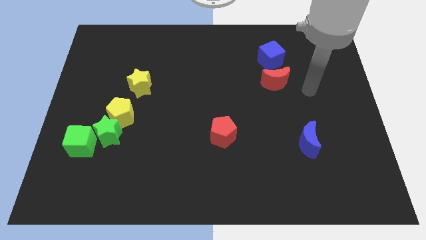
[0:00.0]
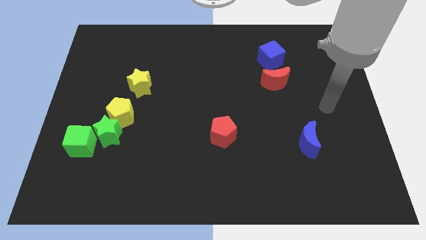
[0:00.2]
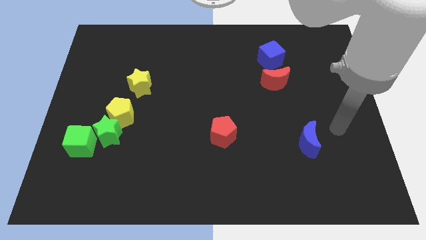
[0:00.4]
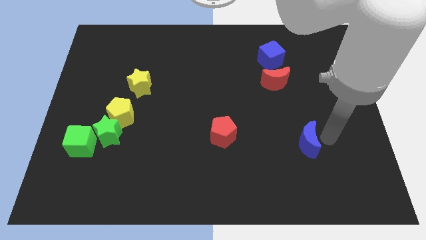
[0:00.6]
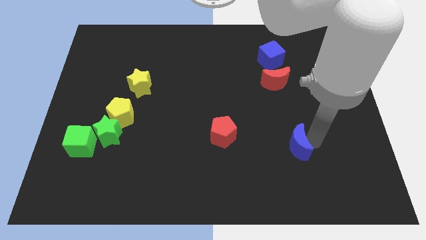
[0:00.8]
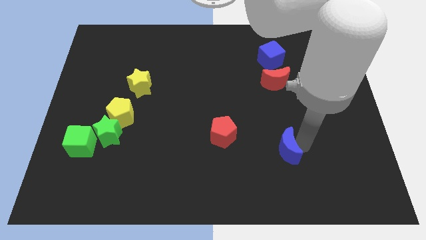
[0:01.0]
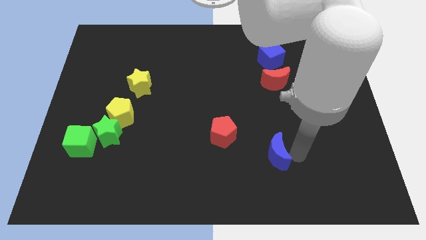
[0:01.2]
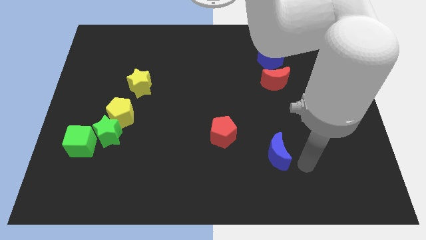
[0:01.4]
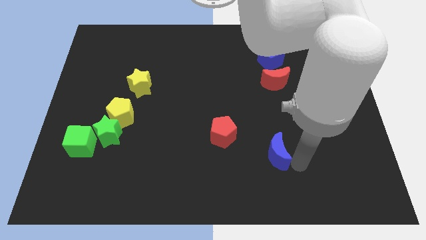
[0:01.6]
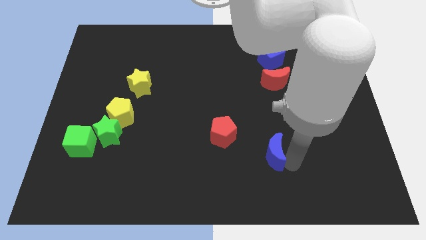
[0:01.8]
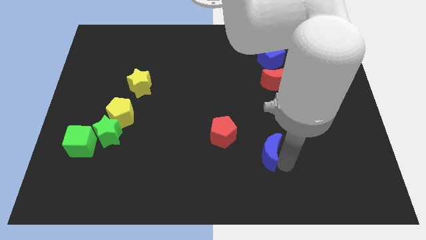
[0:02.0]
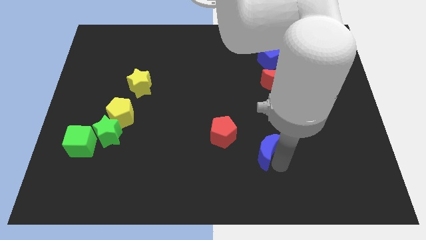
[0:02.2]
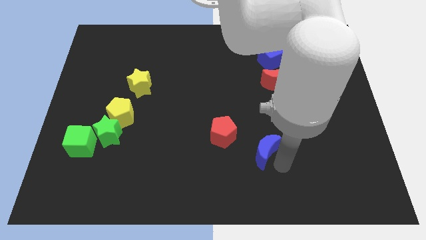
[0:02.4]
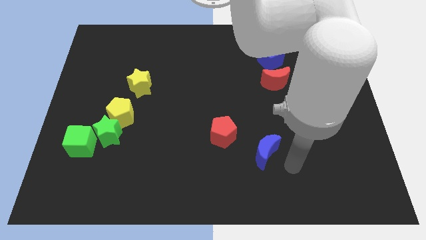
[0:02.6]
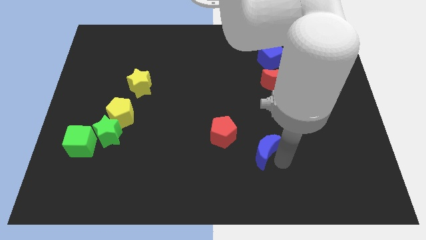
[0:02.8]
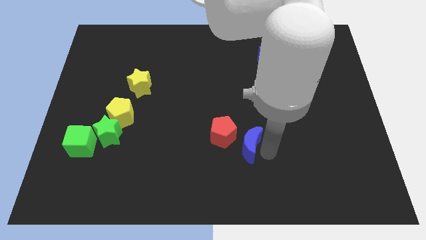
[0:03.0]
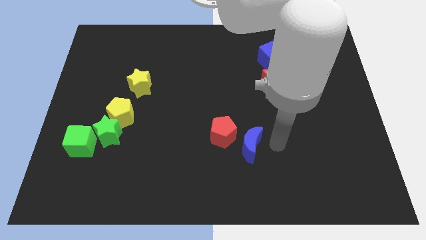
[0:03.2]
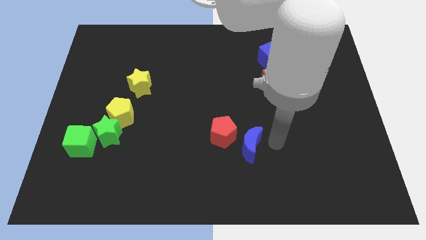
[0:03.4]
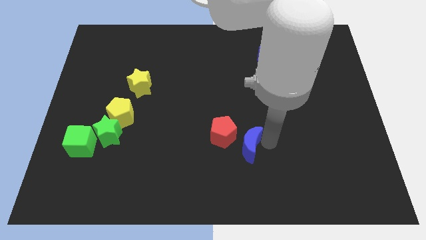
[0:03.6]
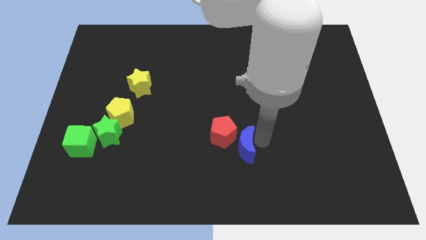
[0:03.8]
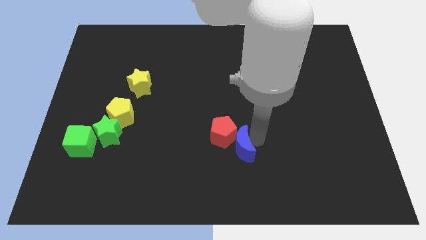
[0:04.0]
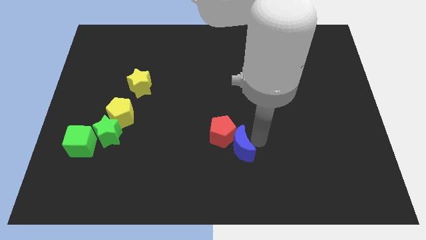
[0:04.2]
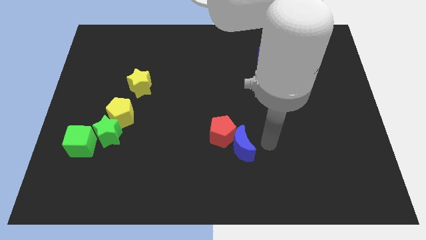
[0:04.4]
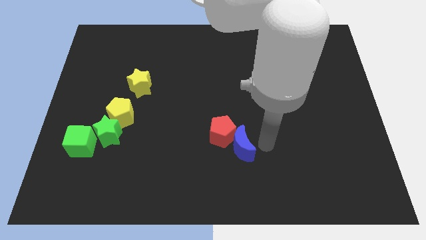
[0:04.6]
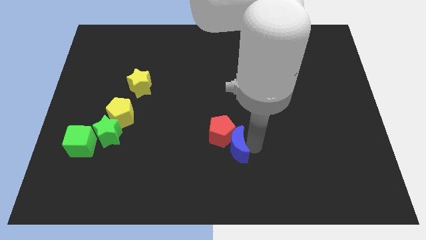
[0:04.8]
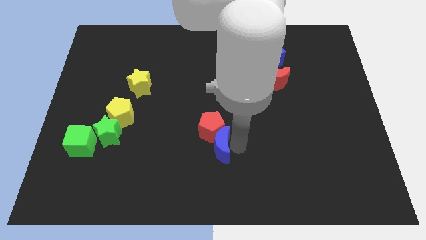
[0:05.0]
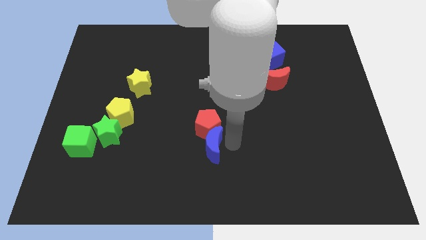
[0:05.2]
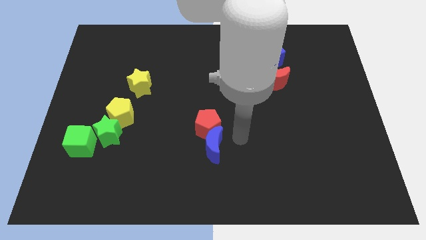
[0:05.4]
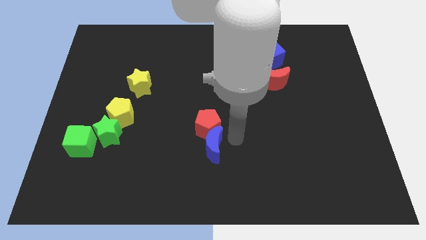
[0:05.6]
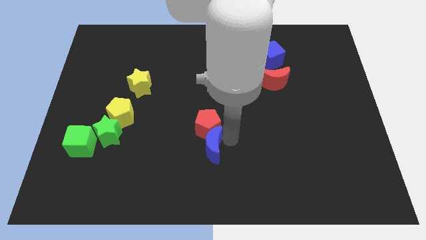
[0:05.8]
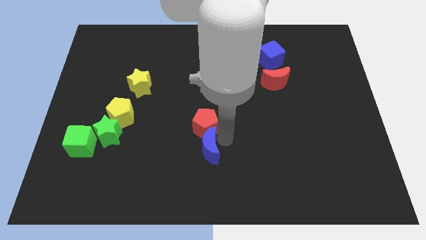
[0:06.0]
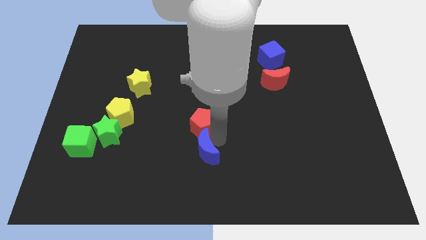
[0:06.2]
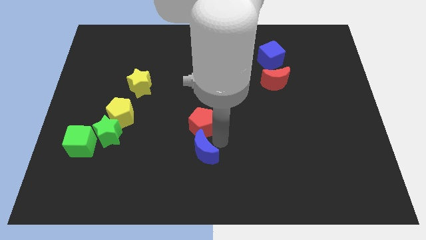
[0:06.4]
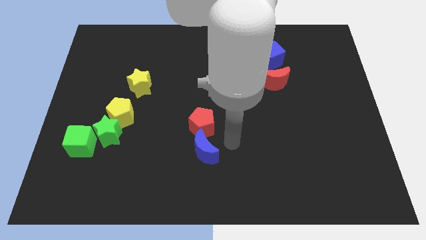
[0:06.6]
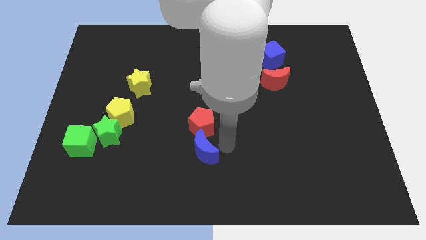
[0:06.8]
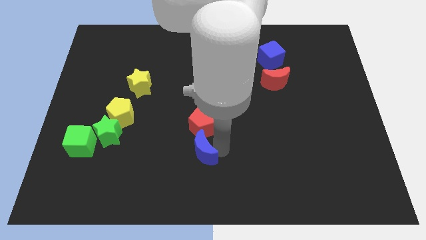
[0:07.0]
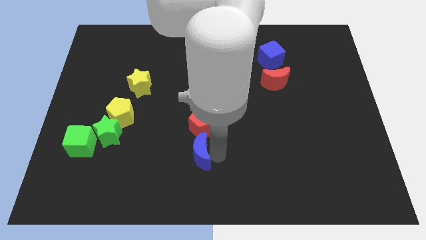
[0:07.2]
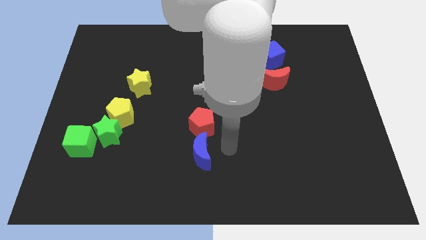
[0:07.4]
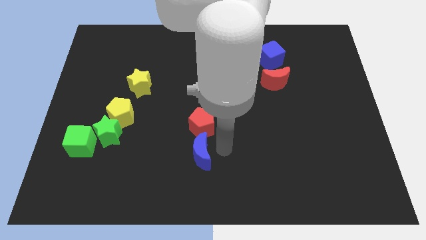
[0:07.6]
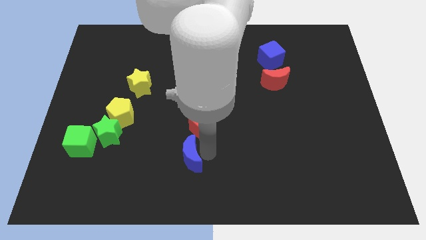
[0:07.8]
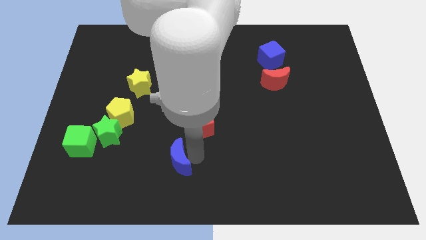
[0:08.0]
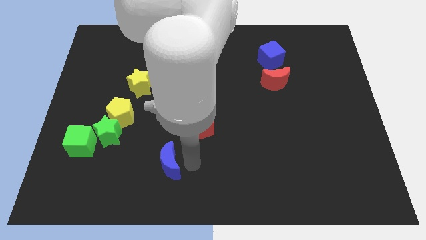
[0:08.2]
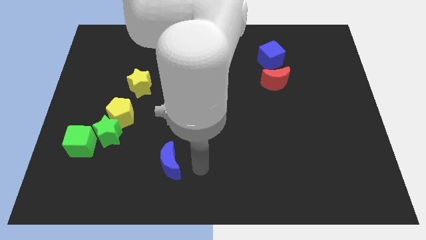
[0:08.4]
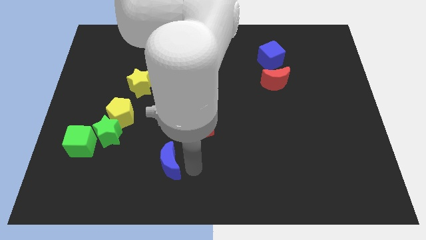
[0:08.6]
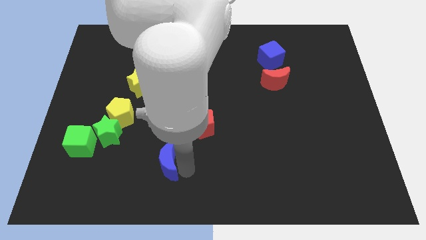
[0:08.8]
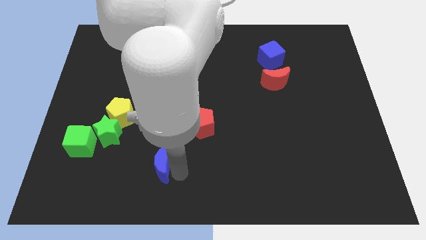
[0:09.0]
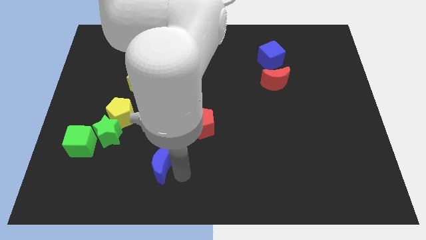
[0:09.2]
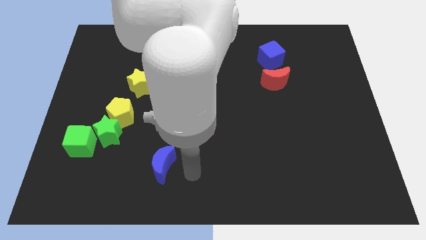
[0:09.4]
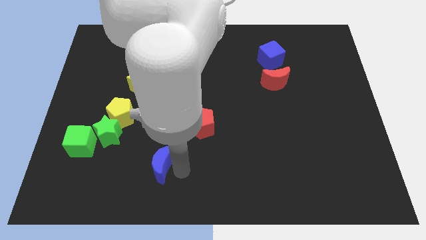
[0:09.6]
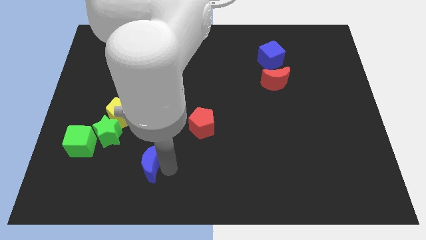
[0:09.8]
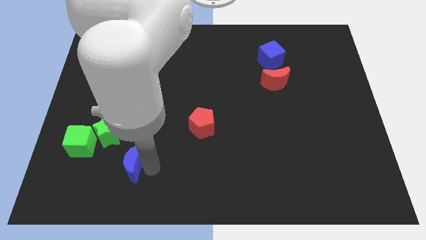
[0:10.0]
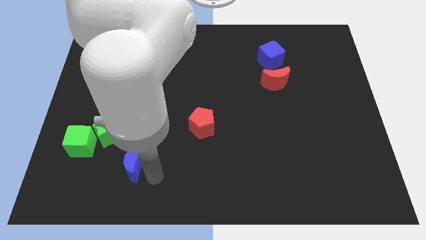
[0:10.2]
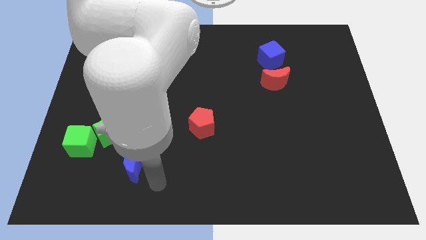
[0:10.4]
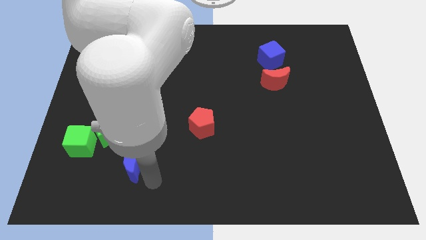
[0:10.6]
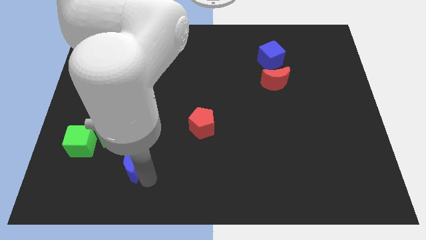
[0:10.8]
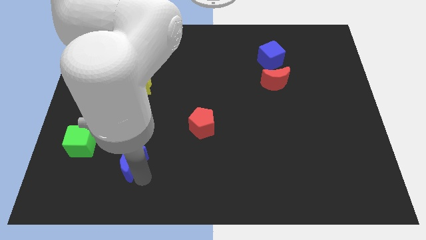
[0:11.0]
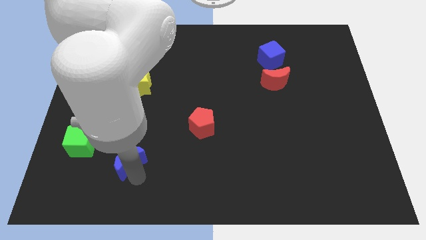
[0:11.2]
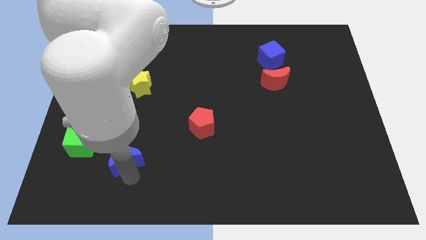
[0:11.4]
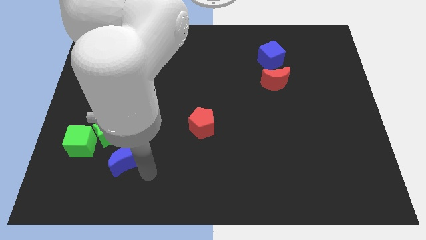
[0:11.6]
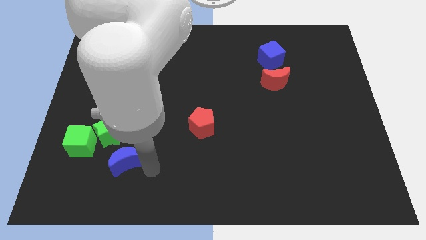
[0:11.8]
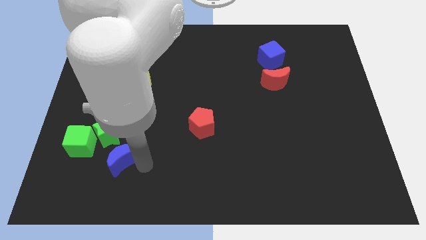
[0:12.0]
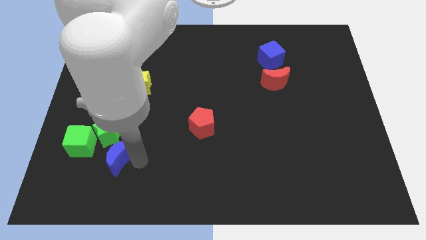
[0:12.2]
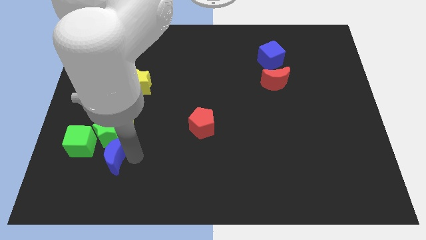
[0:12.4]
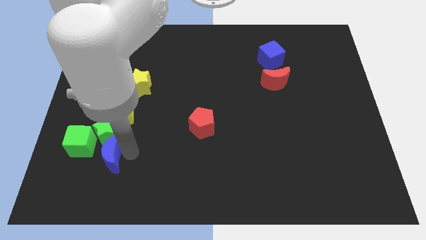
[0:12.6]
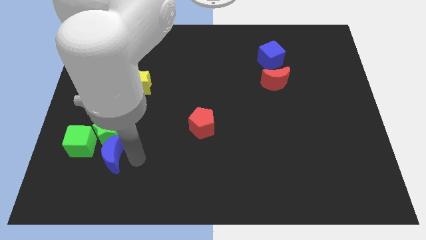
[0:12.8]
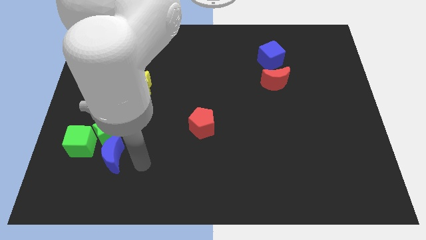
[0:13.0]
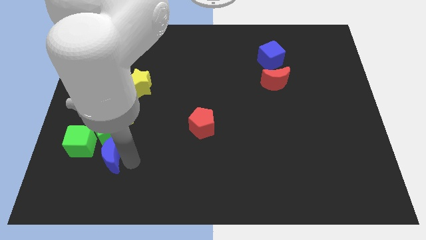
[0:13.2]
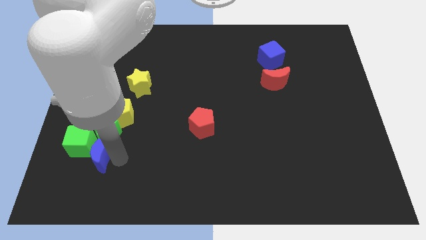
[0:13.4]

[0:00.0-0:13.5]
push the blue moon close to the green cube
